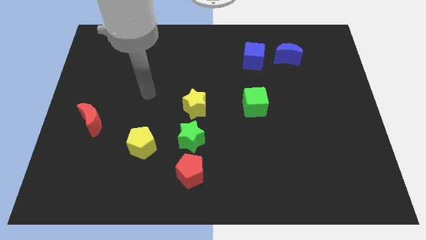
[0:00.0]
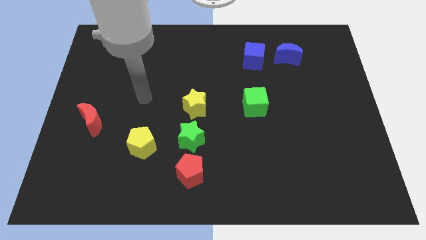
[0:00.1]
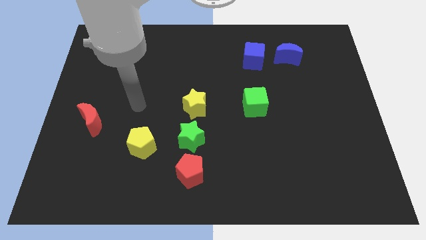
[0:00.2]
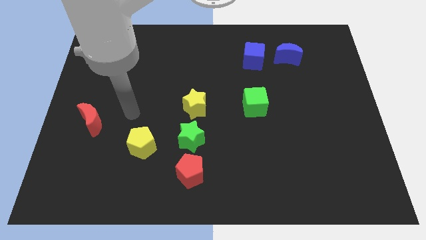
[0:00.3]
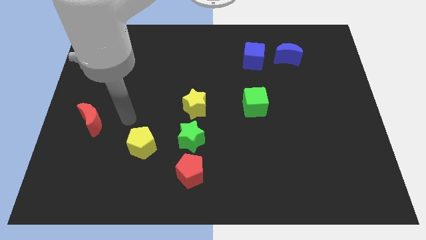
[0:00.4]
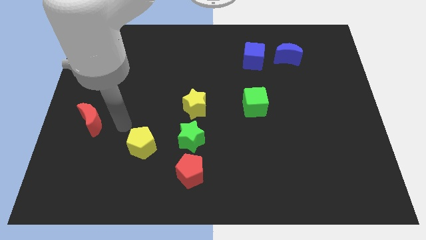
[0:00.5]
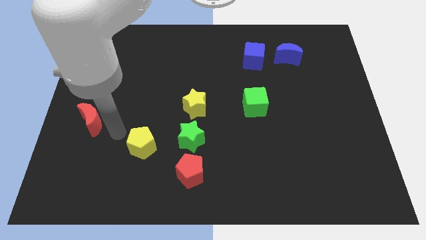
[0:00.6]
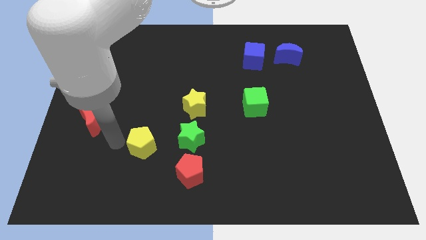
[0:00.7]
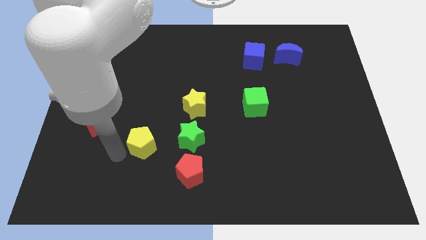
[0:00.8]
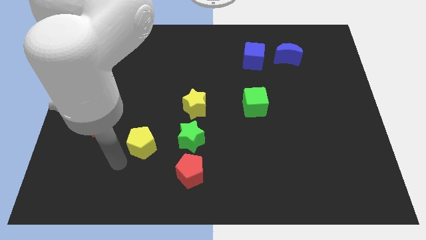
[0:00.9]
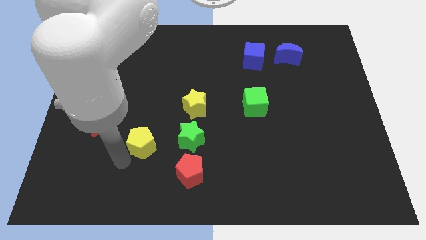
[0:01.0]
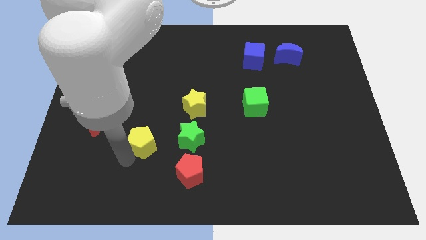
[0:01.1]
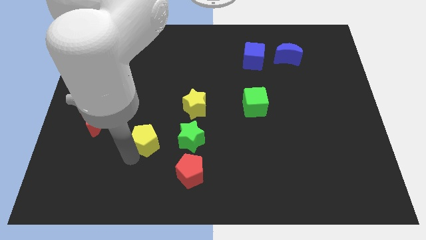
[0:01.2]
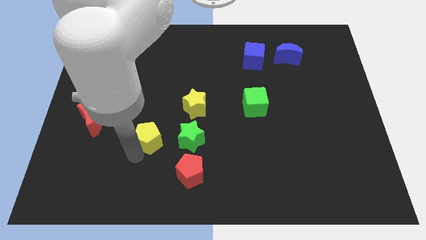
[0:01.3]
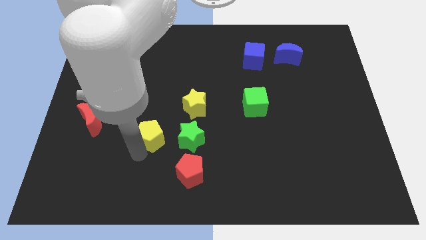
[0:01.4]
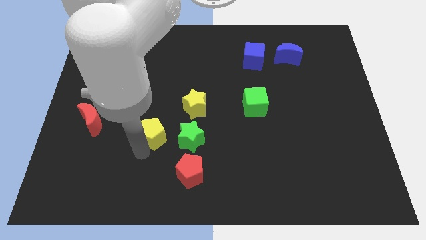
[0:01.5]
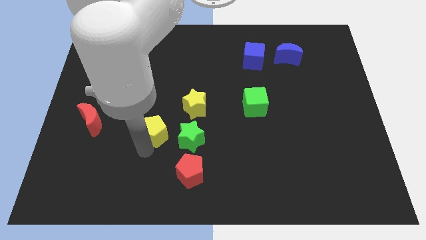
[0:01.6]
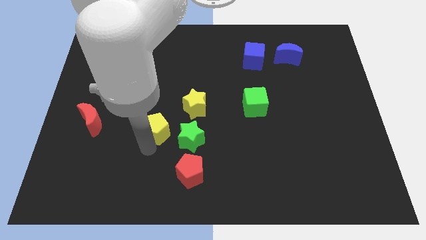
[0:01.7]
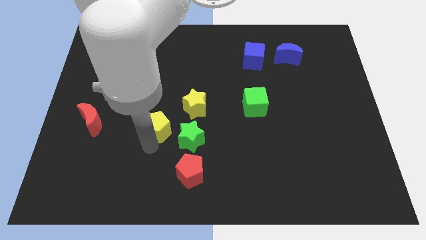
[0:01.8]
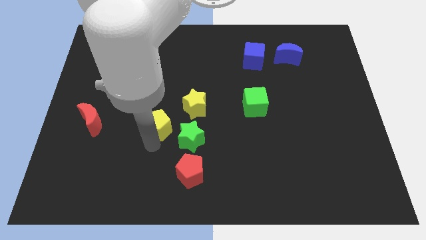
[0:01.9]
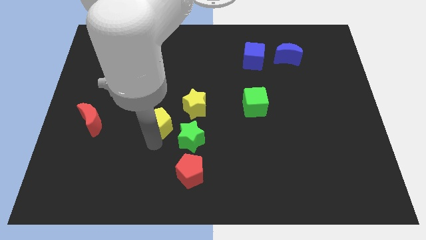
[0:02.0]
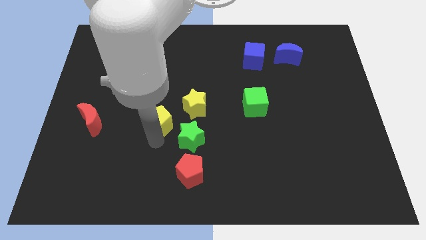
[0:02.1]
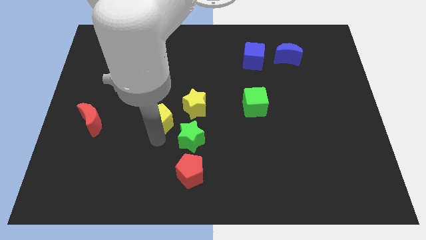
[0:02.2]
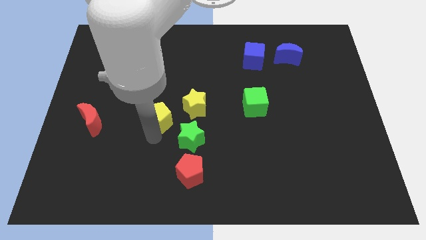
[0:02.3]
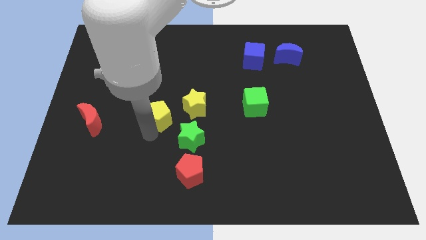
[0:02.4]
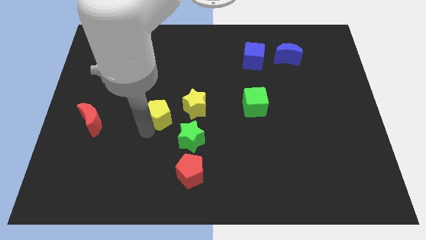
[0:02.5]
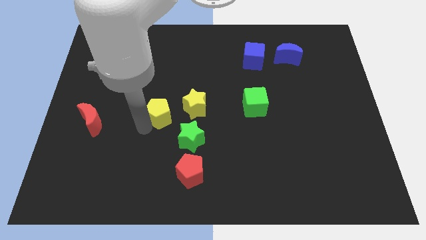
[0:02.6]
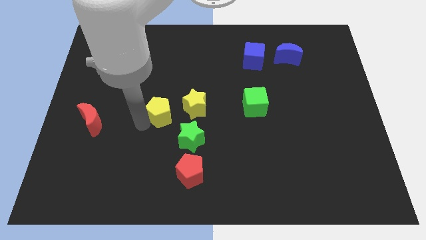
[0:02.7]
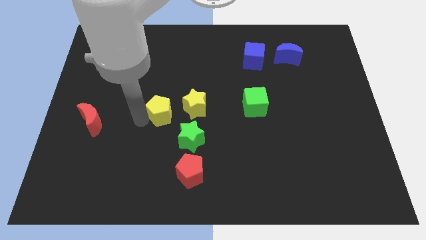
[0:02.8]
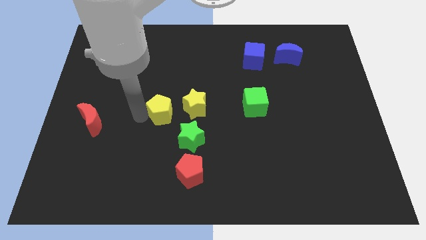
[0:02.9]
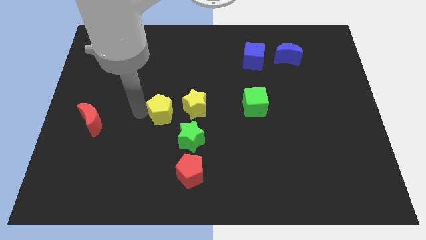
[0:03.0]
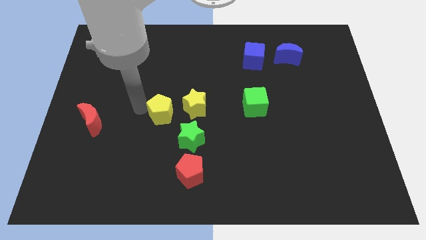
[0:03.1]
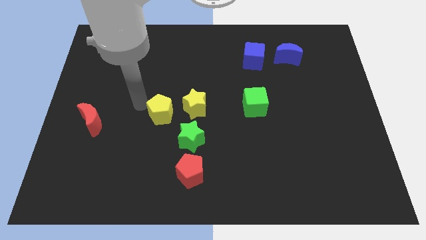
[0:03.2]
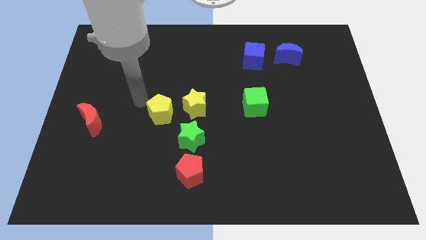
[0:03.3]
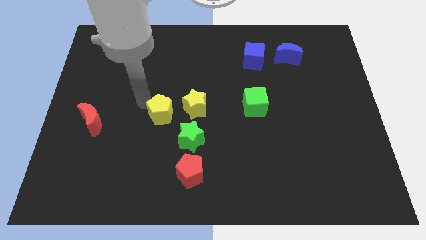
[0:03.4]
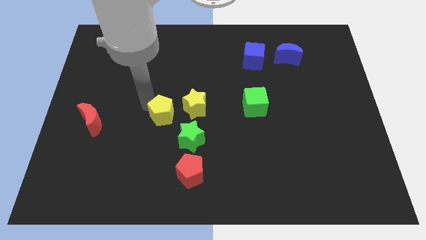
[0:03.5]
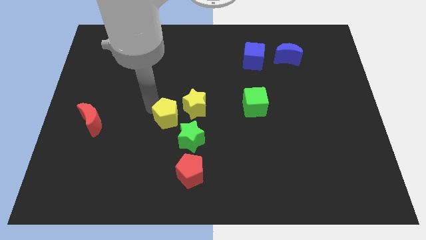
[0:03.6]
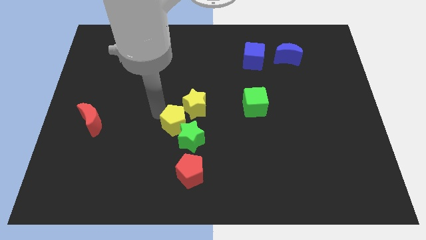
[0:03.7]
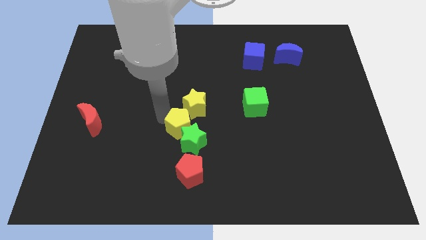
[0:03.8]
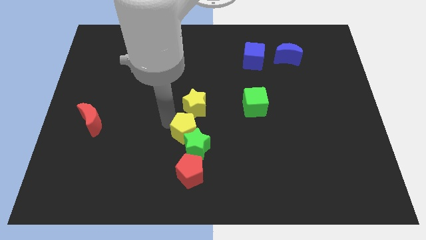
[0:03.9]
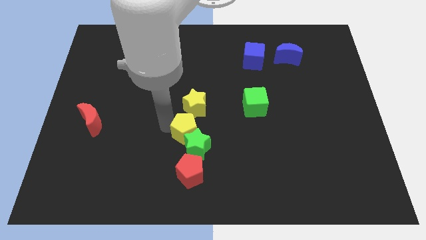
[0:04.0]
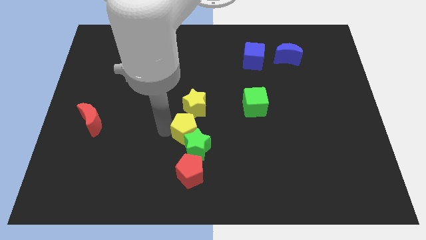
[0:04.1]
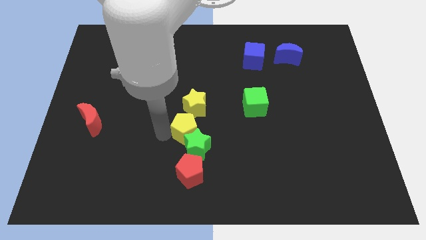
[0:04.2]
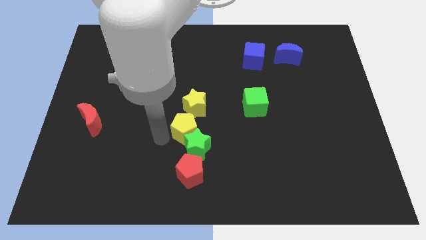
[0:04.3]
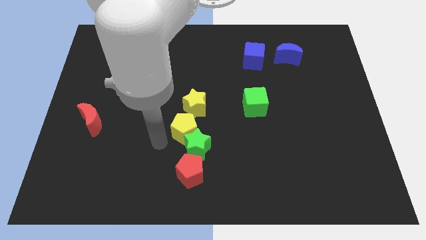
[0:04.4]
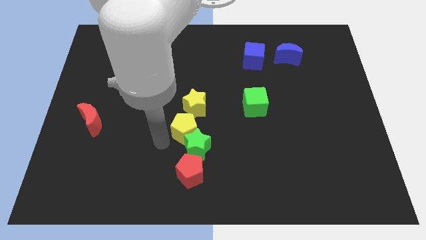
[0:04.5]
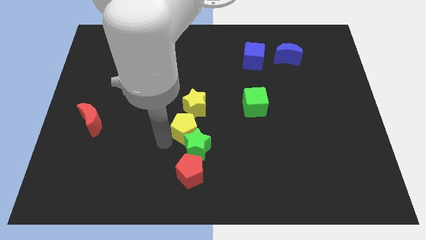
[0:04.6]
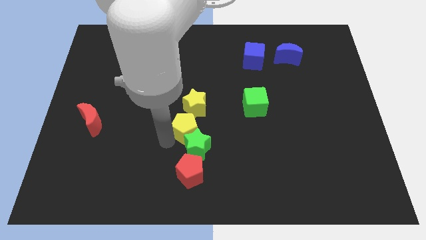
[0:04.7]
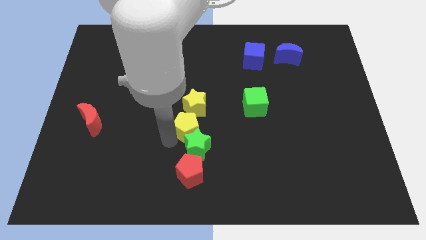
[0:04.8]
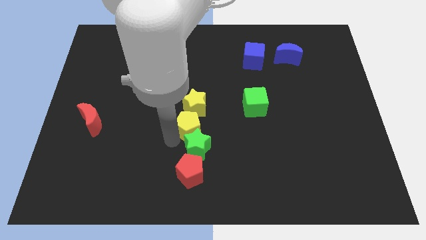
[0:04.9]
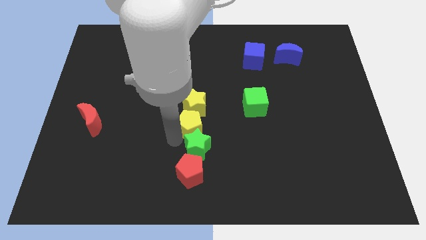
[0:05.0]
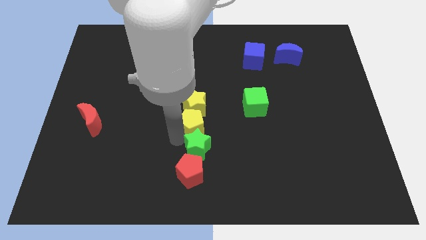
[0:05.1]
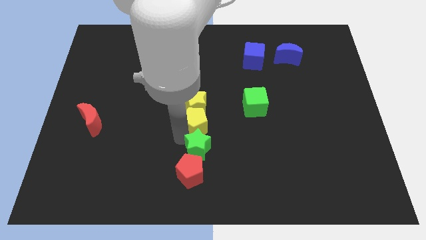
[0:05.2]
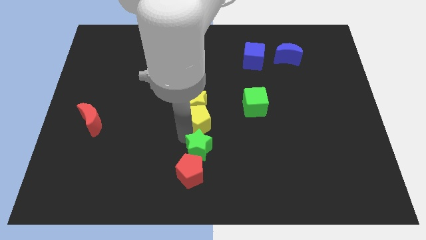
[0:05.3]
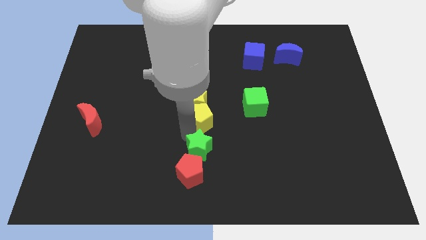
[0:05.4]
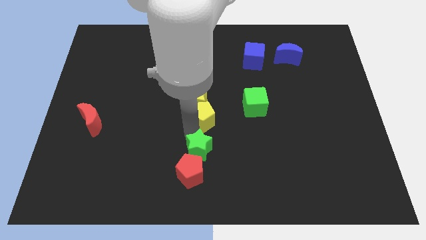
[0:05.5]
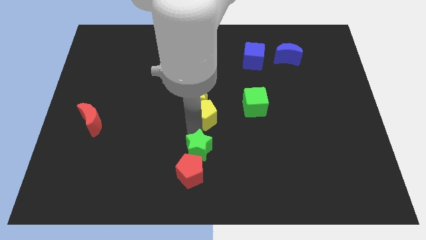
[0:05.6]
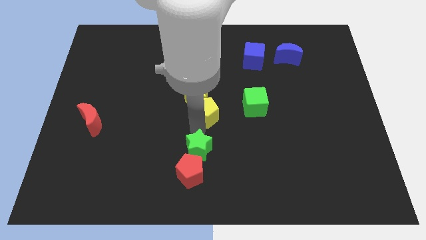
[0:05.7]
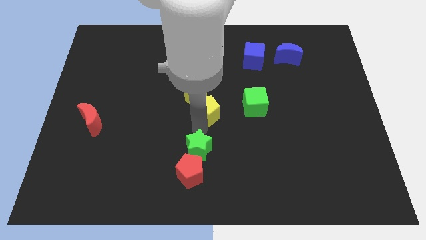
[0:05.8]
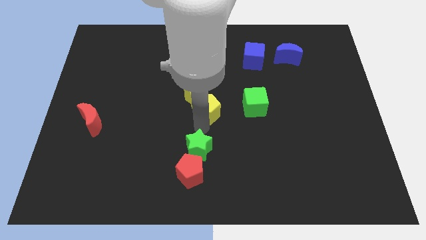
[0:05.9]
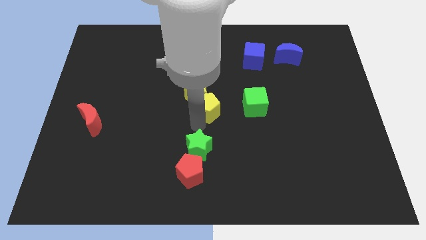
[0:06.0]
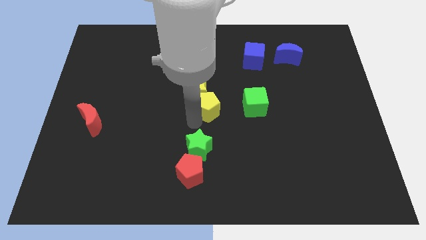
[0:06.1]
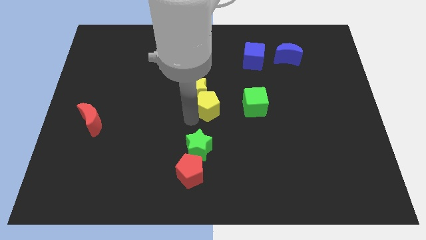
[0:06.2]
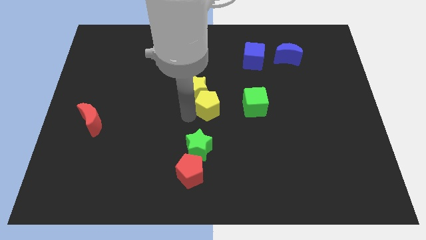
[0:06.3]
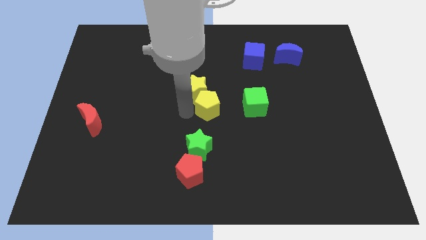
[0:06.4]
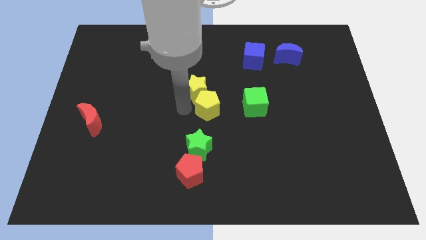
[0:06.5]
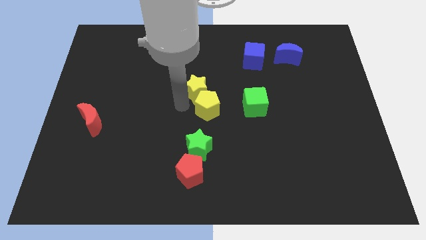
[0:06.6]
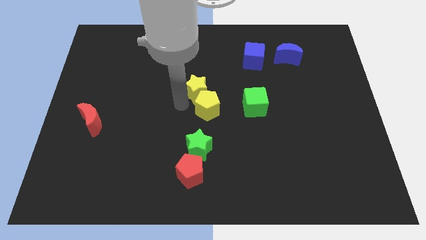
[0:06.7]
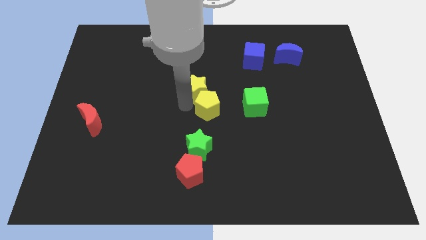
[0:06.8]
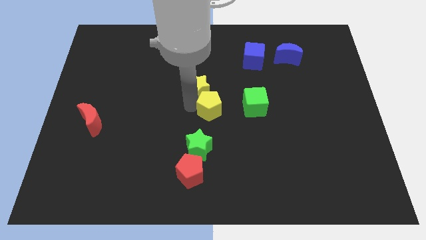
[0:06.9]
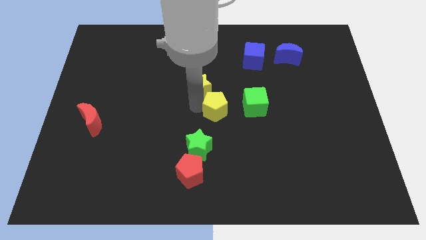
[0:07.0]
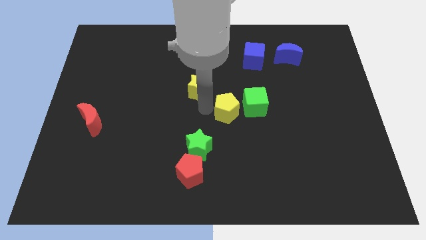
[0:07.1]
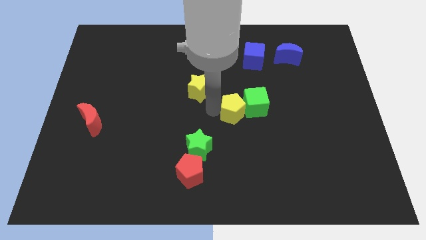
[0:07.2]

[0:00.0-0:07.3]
put the yellow pentagon next to the green cube
